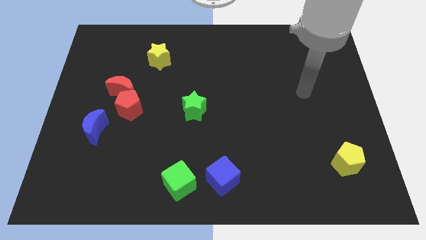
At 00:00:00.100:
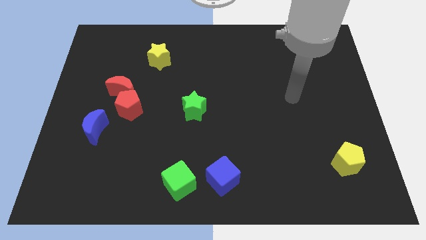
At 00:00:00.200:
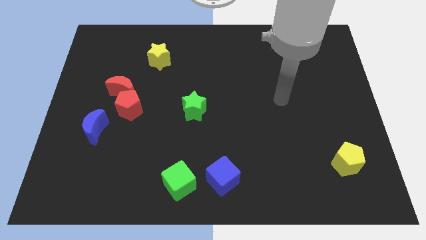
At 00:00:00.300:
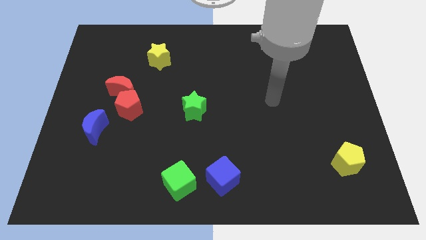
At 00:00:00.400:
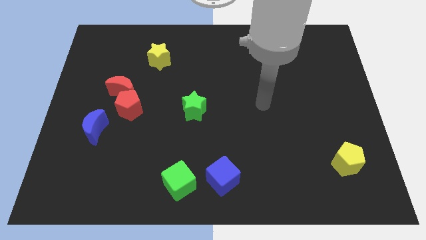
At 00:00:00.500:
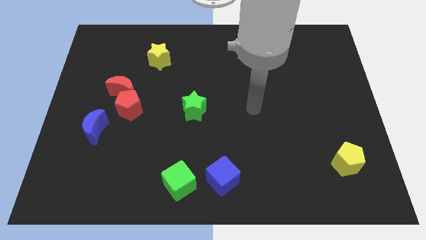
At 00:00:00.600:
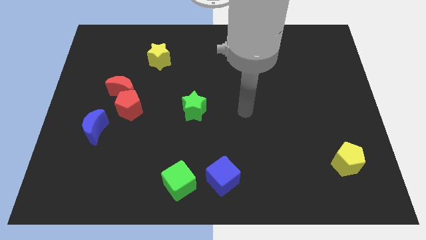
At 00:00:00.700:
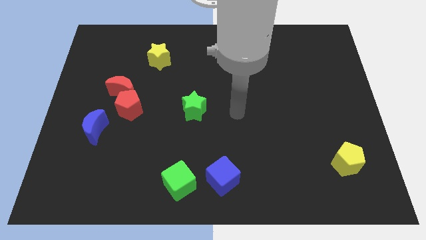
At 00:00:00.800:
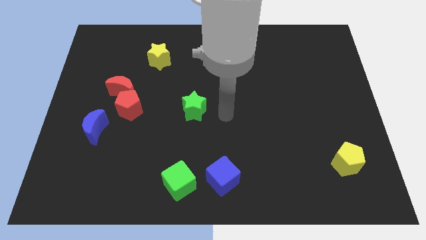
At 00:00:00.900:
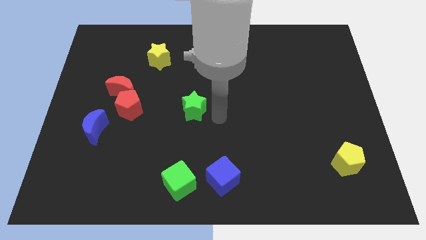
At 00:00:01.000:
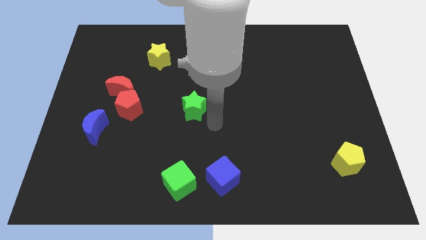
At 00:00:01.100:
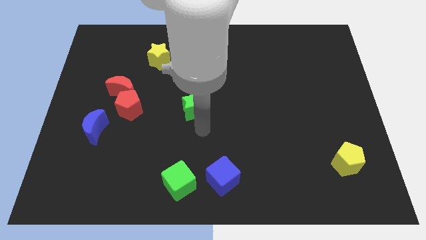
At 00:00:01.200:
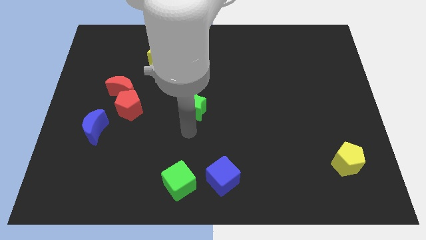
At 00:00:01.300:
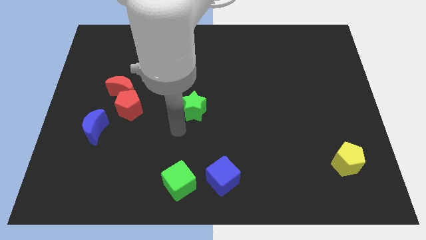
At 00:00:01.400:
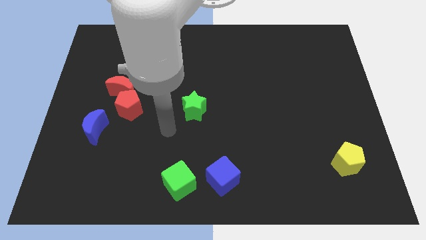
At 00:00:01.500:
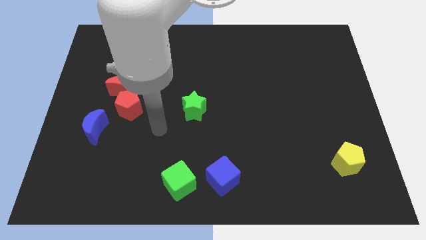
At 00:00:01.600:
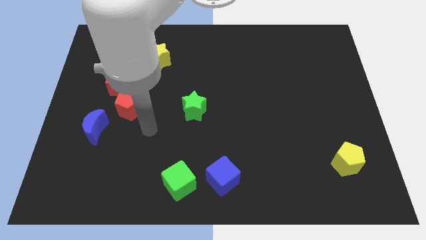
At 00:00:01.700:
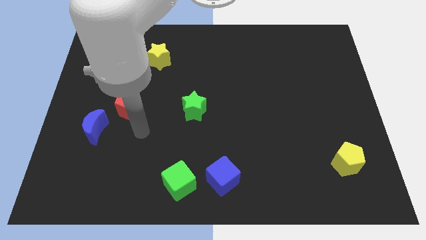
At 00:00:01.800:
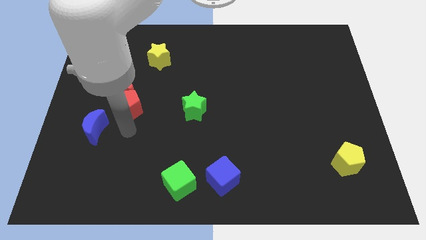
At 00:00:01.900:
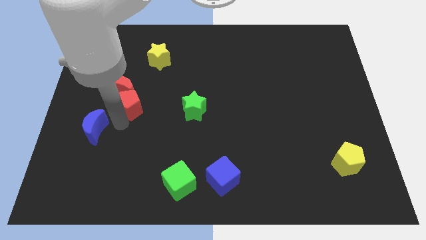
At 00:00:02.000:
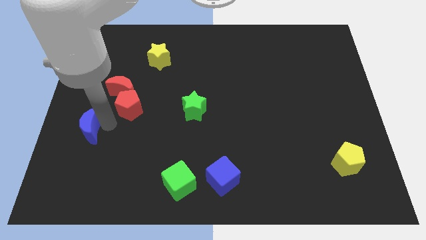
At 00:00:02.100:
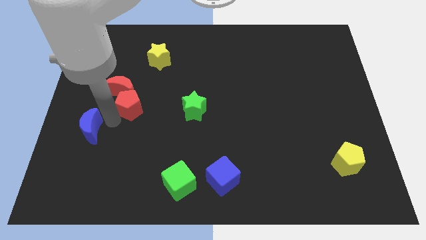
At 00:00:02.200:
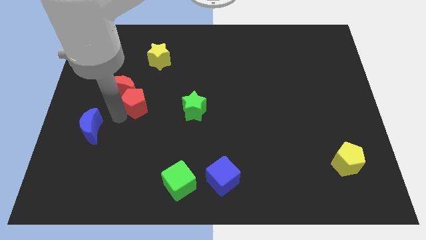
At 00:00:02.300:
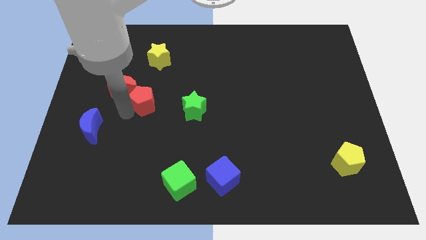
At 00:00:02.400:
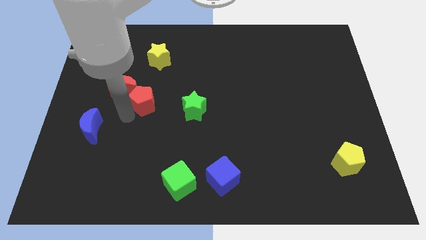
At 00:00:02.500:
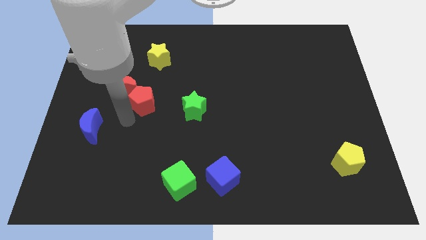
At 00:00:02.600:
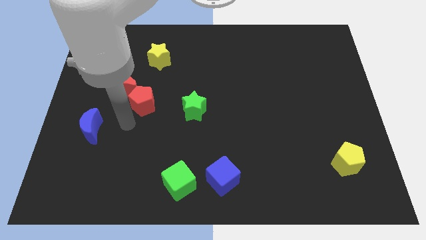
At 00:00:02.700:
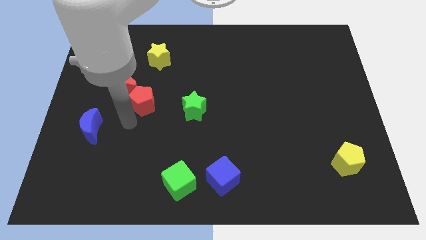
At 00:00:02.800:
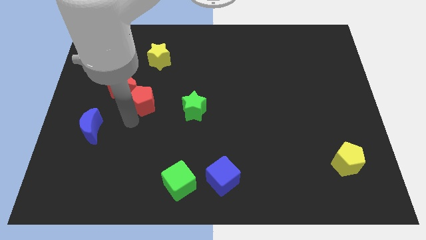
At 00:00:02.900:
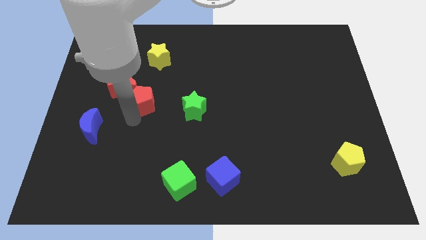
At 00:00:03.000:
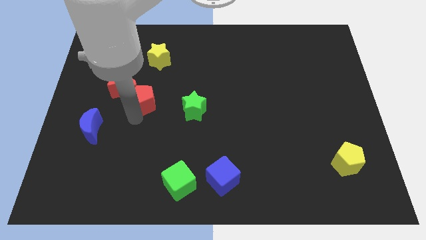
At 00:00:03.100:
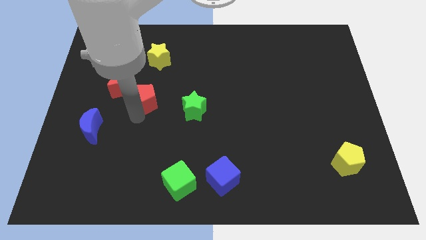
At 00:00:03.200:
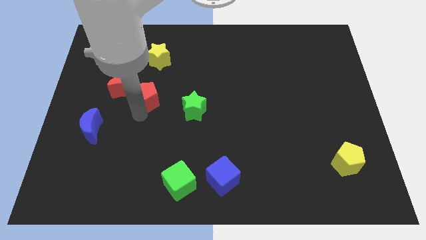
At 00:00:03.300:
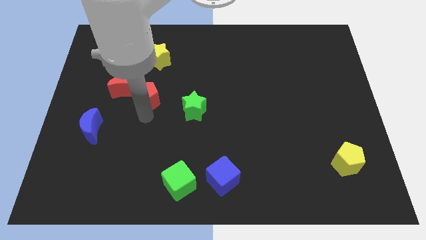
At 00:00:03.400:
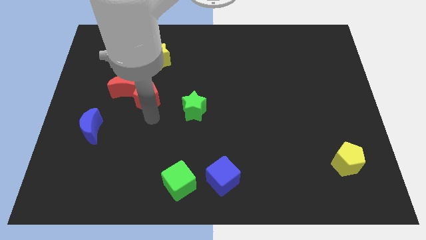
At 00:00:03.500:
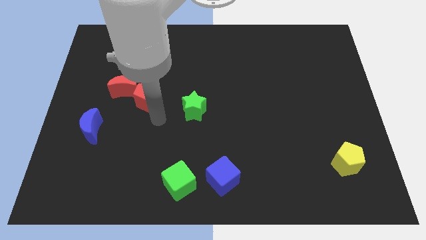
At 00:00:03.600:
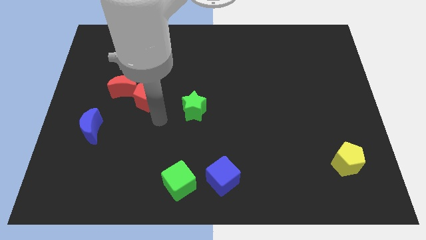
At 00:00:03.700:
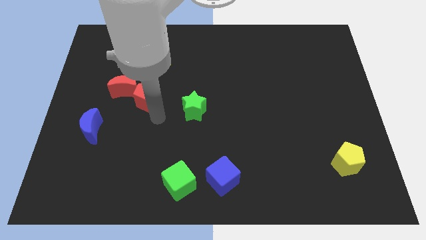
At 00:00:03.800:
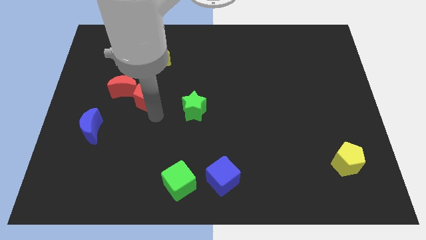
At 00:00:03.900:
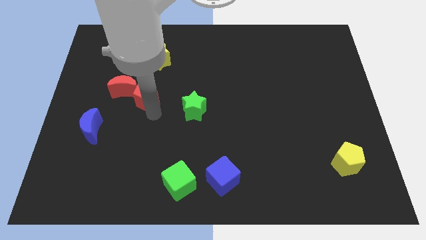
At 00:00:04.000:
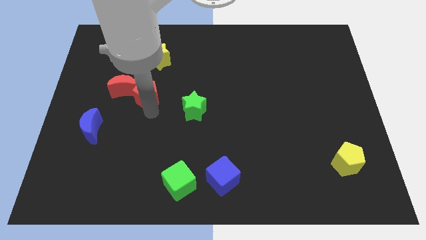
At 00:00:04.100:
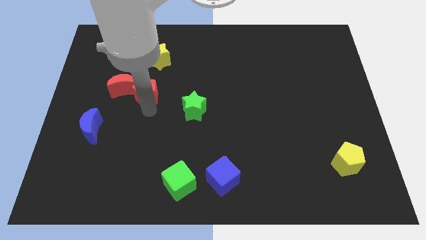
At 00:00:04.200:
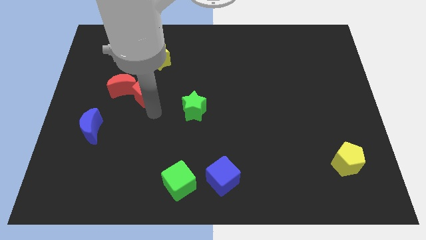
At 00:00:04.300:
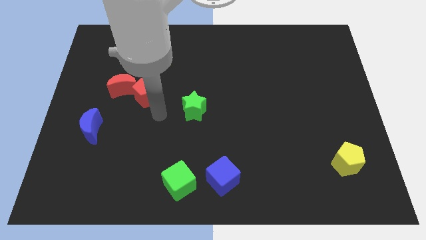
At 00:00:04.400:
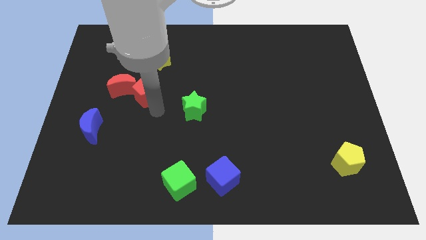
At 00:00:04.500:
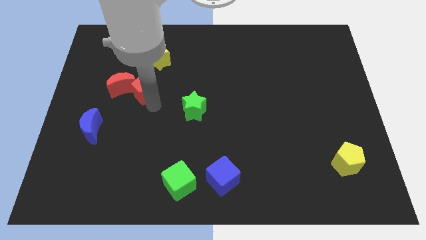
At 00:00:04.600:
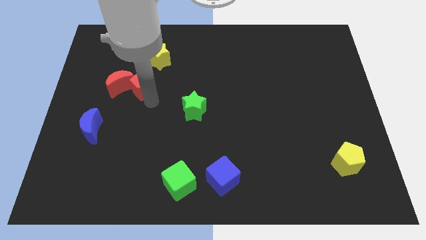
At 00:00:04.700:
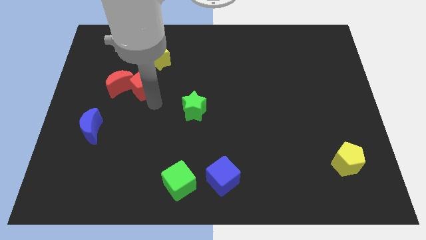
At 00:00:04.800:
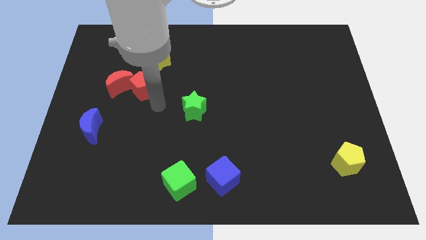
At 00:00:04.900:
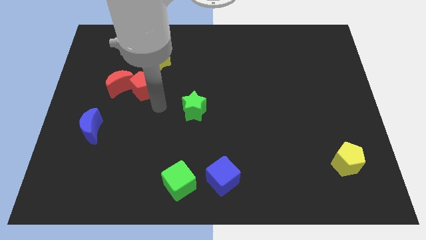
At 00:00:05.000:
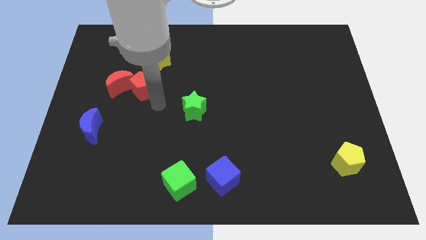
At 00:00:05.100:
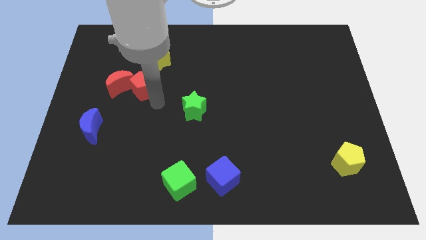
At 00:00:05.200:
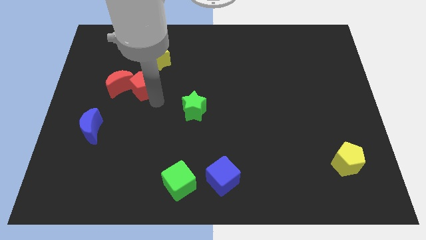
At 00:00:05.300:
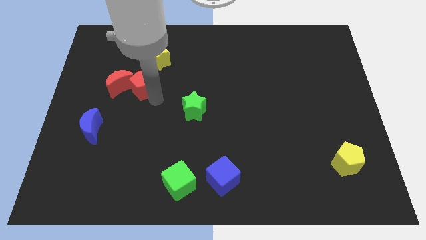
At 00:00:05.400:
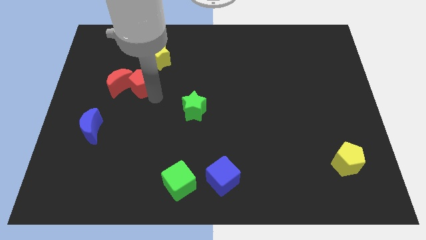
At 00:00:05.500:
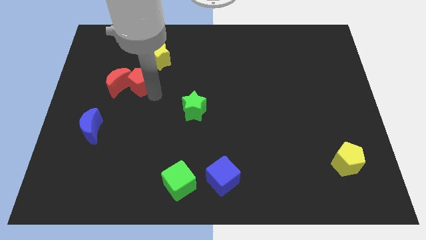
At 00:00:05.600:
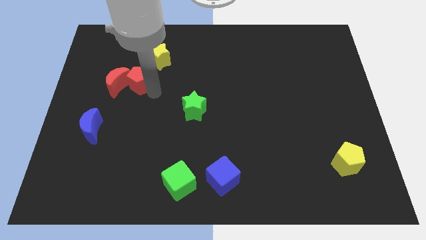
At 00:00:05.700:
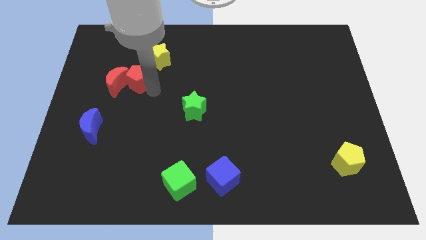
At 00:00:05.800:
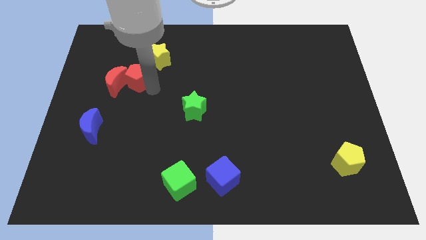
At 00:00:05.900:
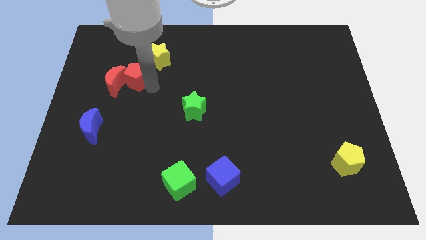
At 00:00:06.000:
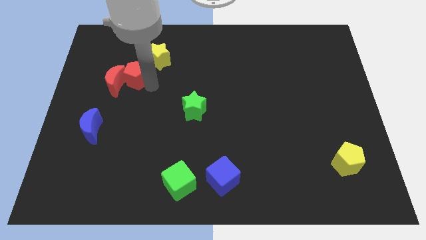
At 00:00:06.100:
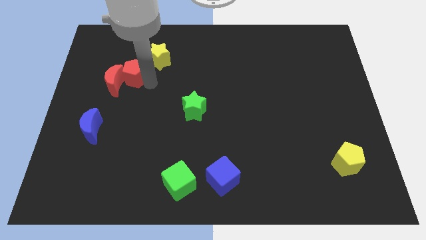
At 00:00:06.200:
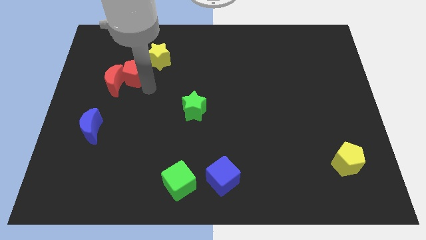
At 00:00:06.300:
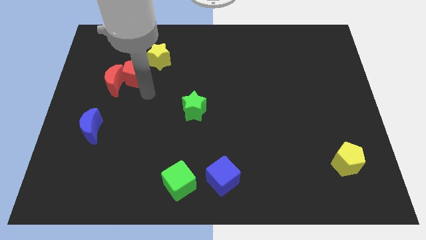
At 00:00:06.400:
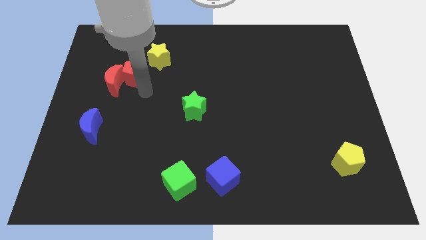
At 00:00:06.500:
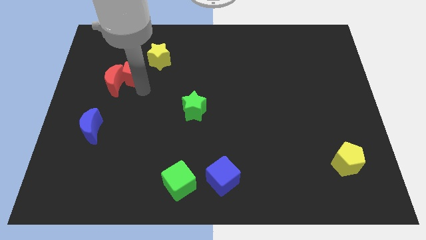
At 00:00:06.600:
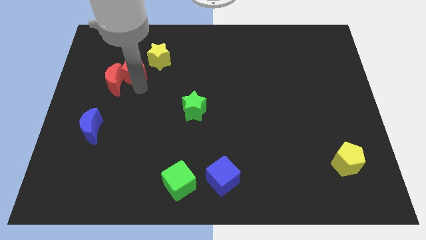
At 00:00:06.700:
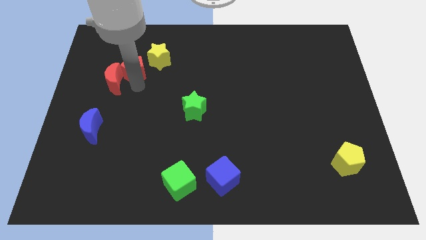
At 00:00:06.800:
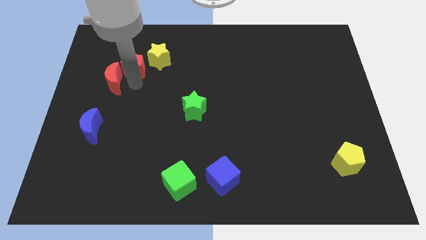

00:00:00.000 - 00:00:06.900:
push the red pentagon to the top side of the red moon

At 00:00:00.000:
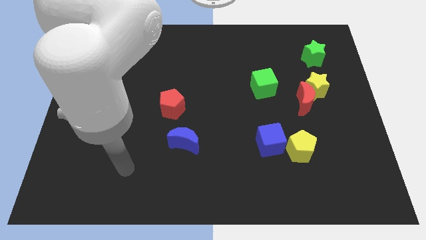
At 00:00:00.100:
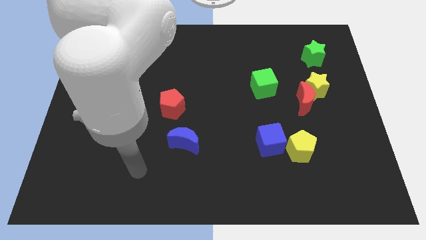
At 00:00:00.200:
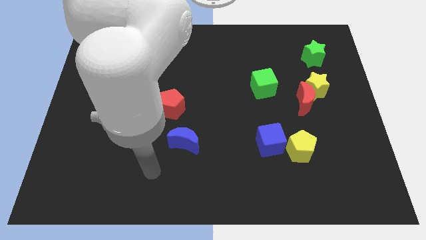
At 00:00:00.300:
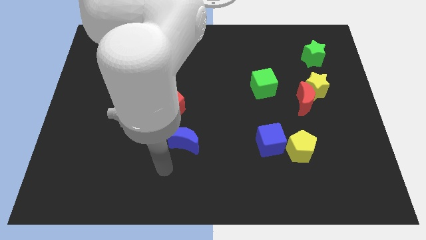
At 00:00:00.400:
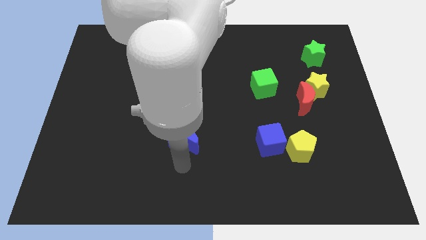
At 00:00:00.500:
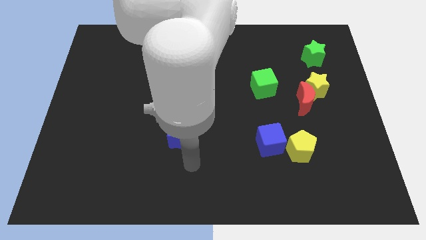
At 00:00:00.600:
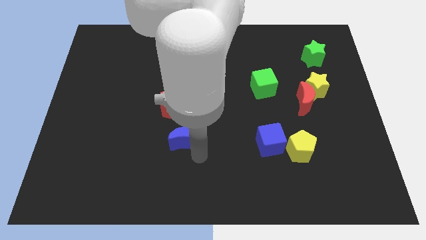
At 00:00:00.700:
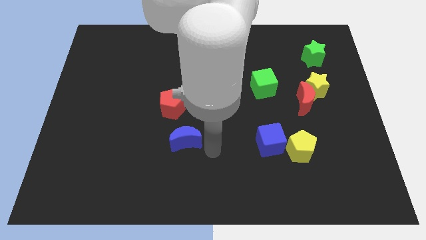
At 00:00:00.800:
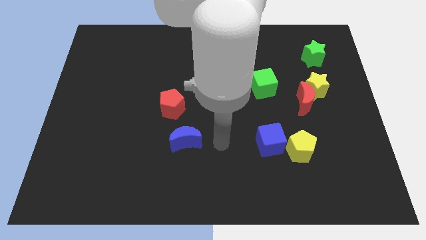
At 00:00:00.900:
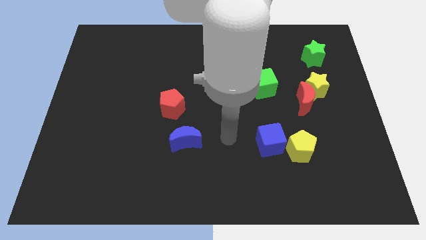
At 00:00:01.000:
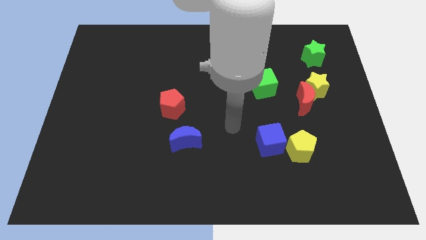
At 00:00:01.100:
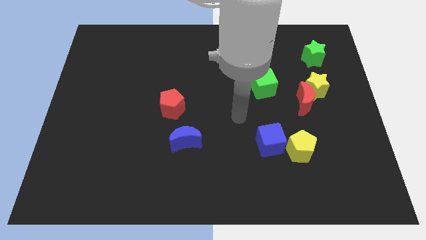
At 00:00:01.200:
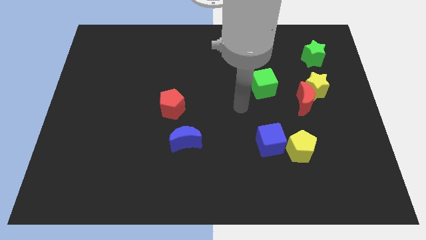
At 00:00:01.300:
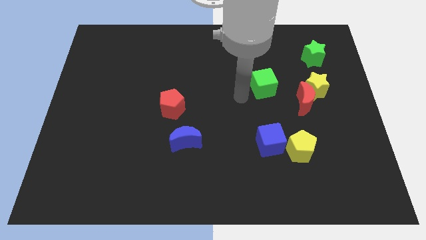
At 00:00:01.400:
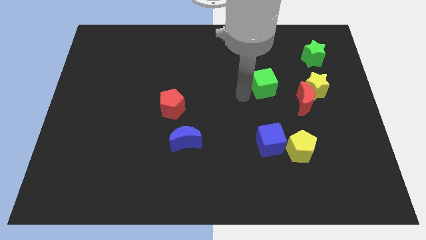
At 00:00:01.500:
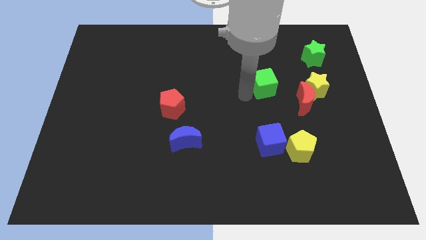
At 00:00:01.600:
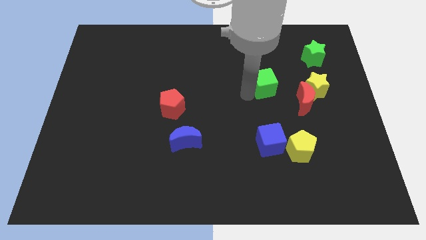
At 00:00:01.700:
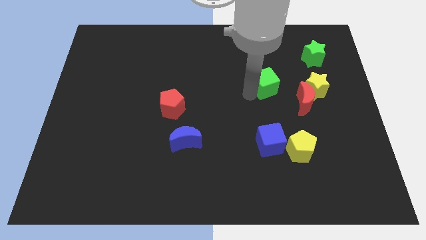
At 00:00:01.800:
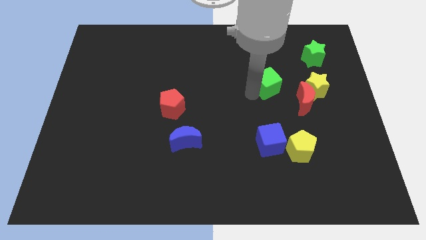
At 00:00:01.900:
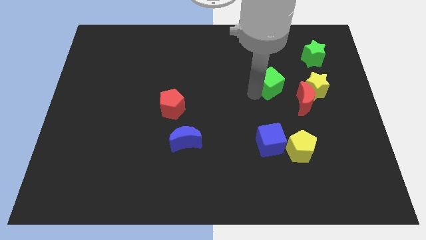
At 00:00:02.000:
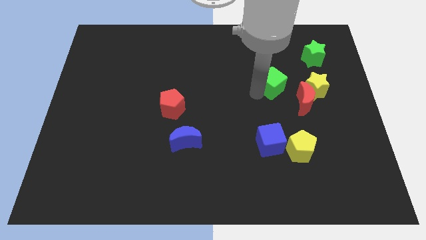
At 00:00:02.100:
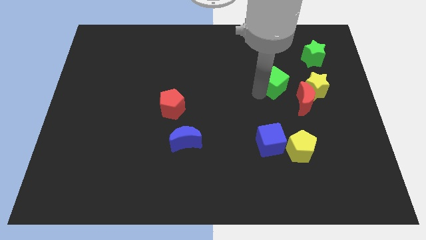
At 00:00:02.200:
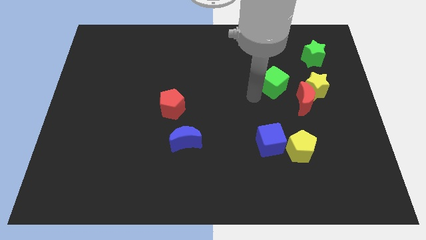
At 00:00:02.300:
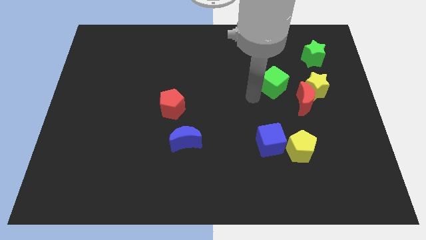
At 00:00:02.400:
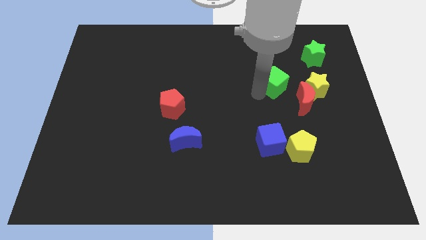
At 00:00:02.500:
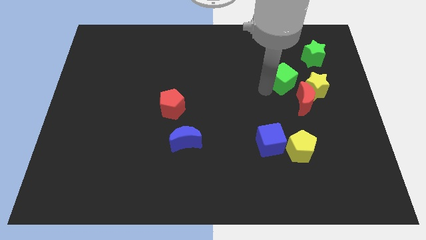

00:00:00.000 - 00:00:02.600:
slide the green cube to the top side of the red moon
